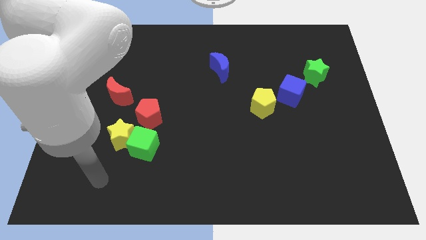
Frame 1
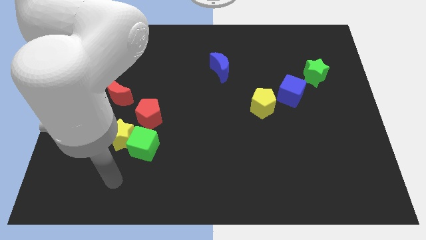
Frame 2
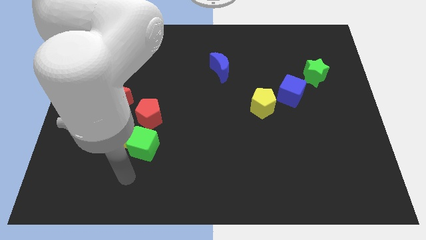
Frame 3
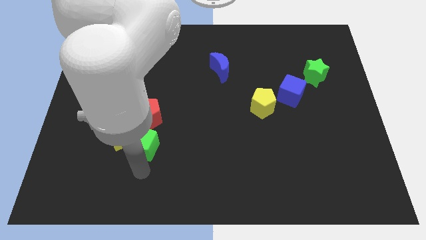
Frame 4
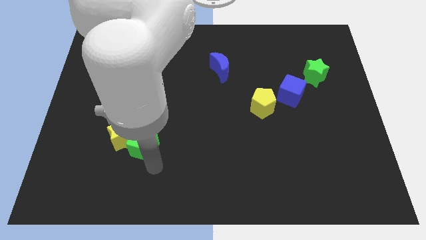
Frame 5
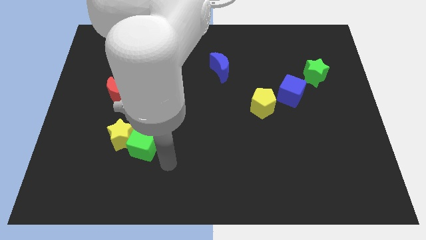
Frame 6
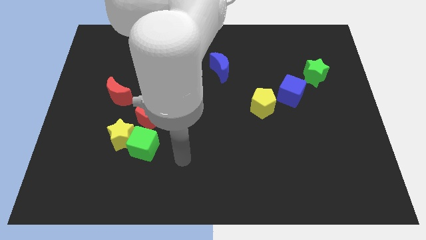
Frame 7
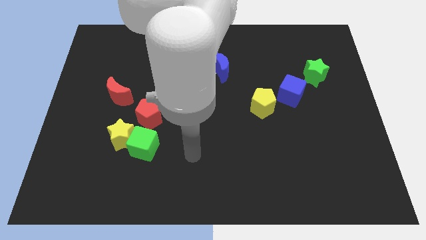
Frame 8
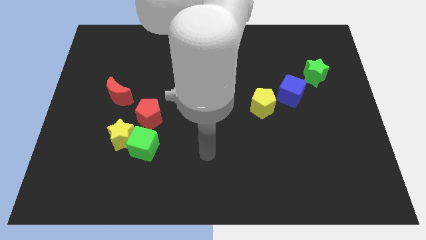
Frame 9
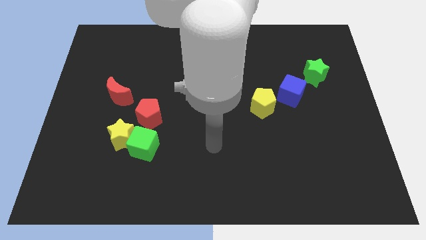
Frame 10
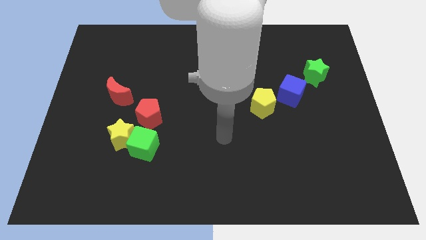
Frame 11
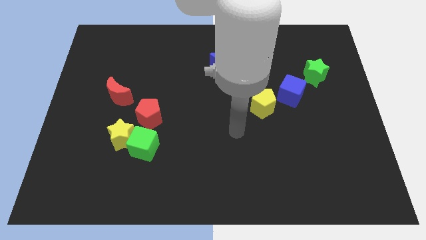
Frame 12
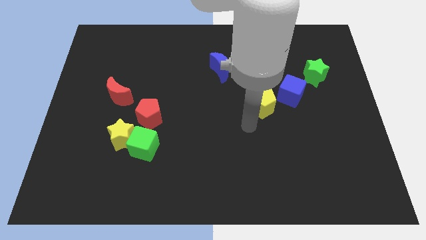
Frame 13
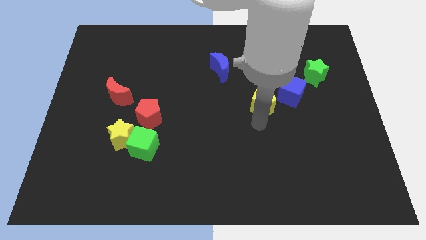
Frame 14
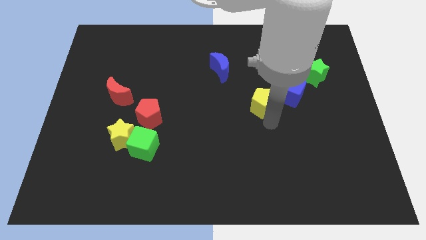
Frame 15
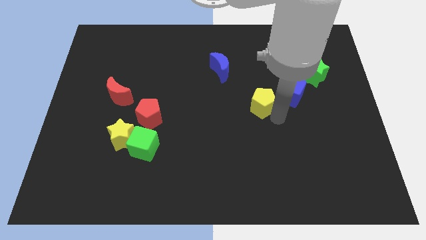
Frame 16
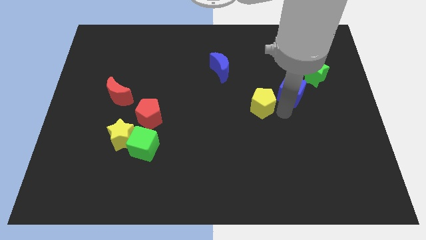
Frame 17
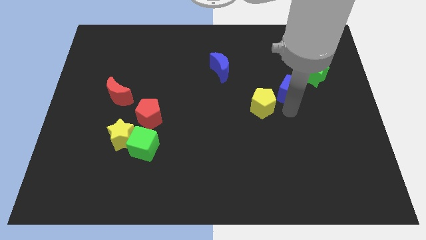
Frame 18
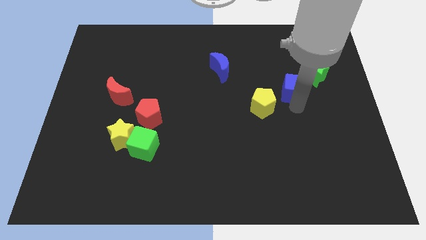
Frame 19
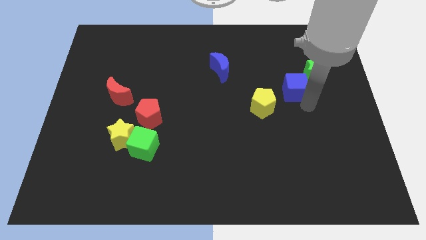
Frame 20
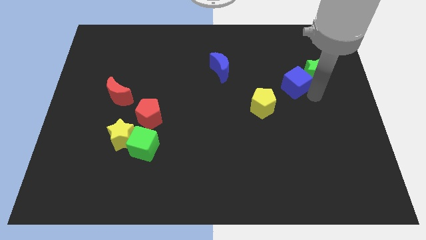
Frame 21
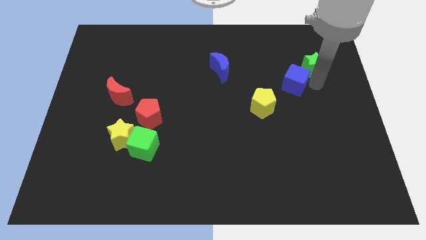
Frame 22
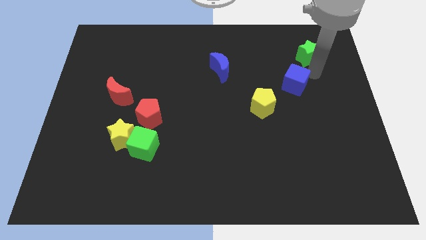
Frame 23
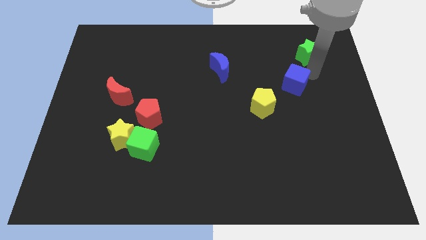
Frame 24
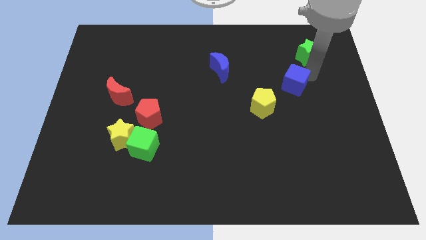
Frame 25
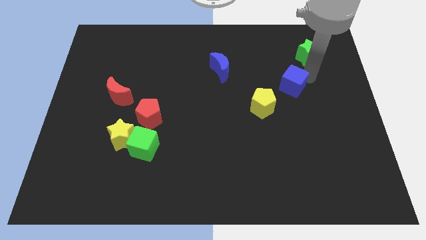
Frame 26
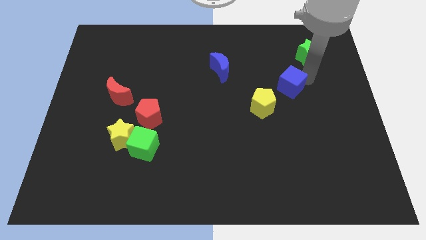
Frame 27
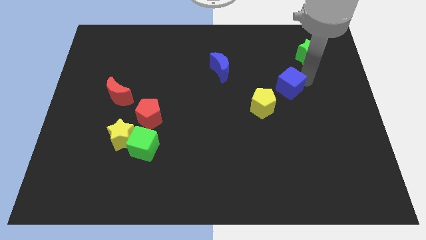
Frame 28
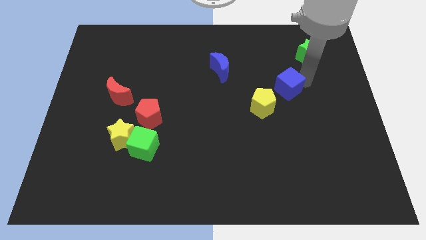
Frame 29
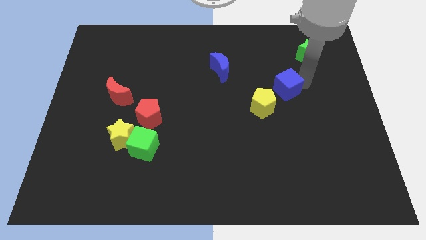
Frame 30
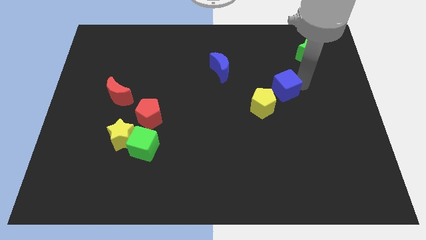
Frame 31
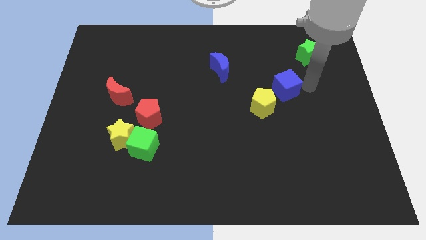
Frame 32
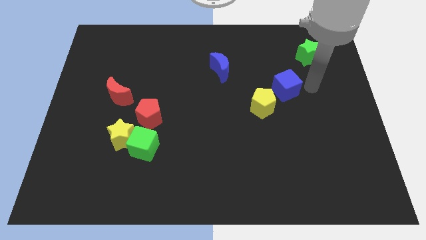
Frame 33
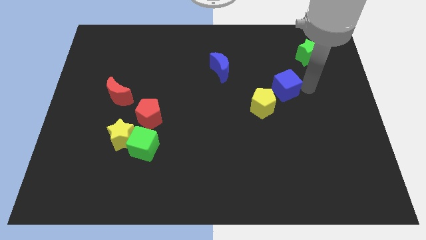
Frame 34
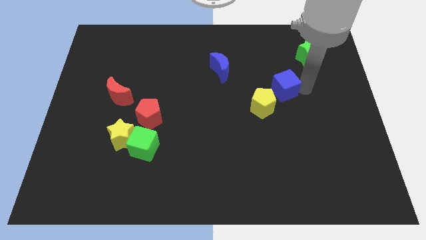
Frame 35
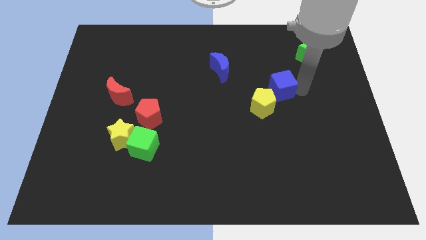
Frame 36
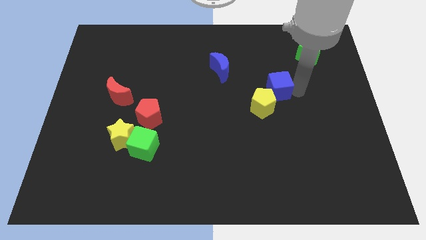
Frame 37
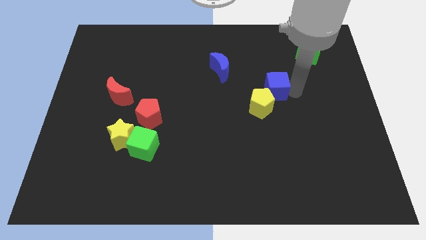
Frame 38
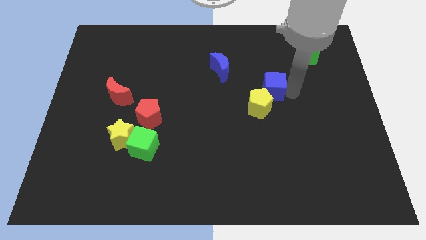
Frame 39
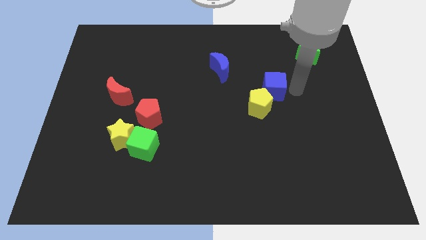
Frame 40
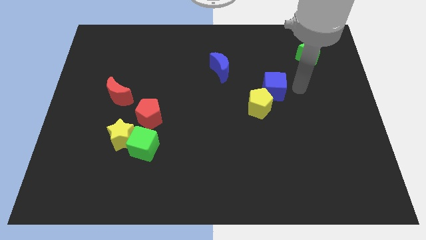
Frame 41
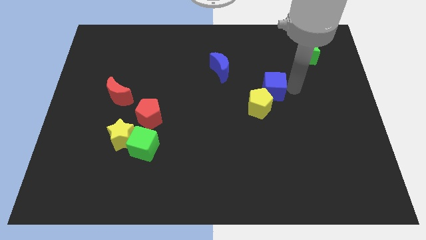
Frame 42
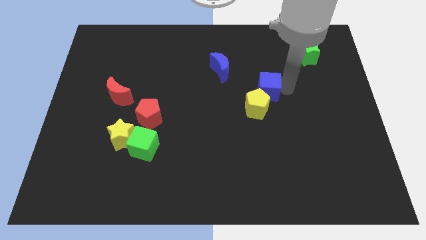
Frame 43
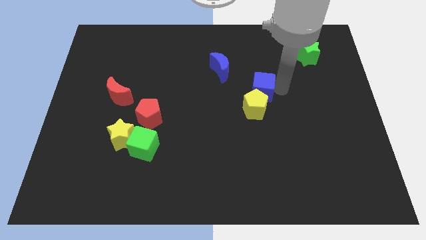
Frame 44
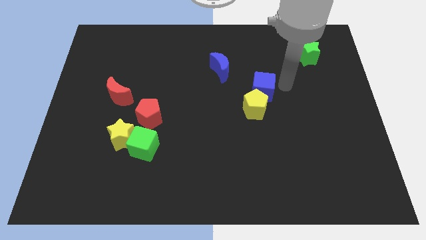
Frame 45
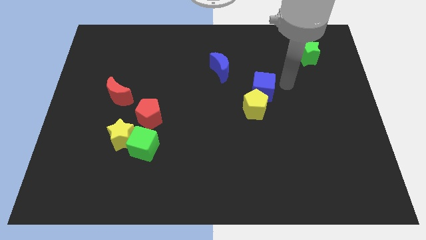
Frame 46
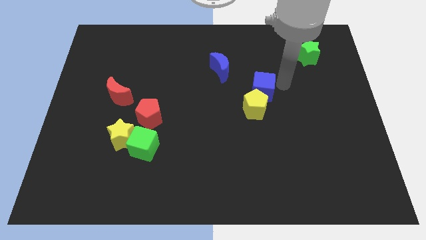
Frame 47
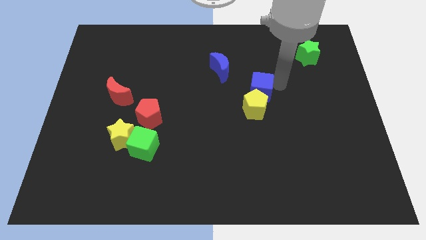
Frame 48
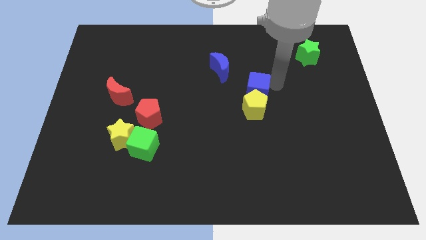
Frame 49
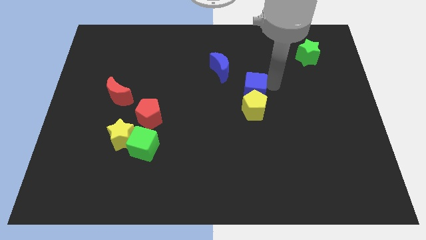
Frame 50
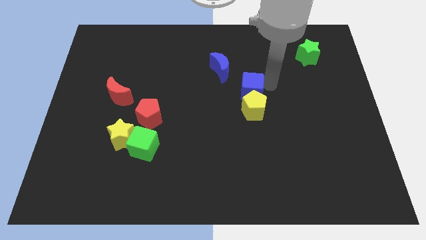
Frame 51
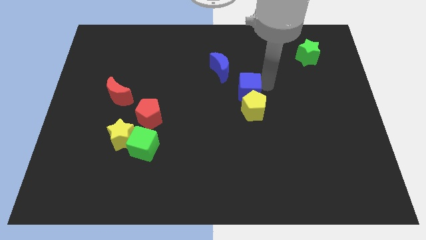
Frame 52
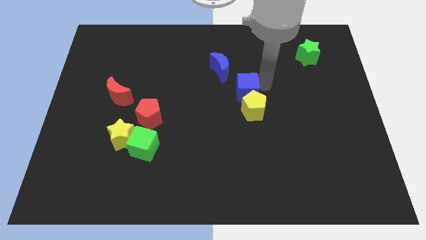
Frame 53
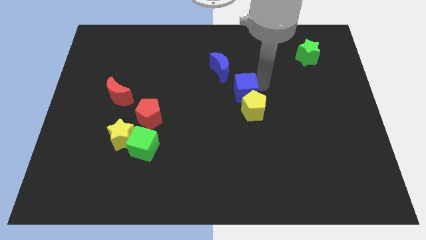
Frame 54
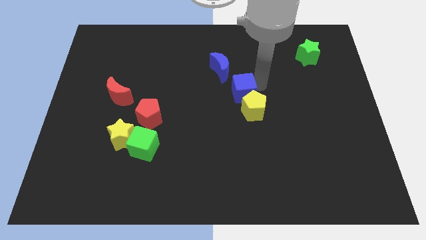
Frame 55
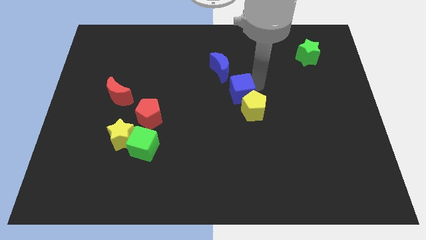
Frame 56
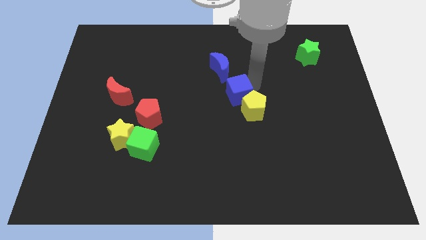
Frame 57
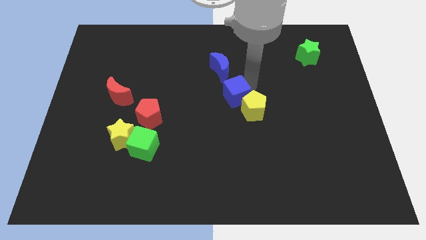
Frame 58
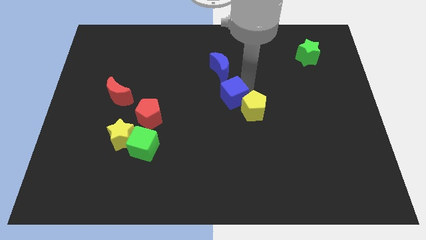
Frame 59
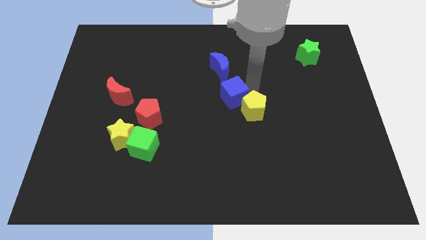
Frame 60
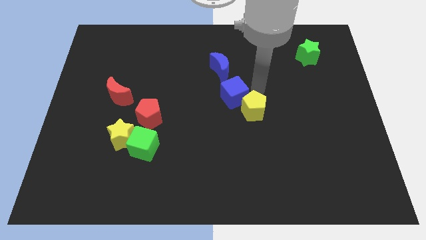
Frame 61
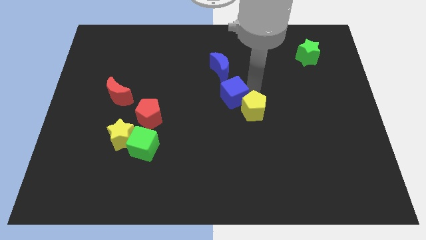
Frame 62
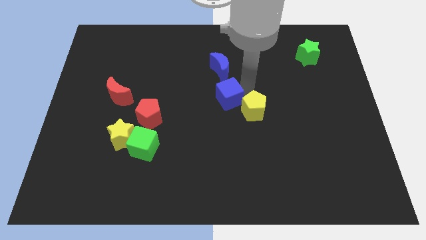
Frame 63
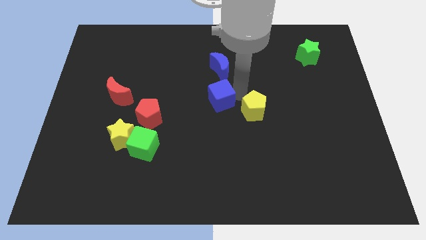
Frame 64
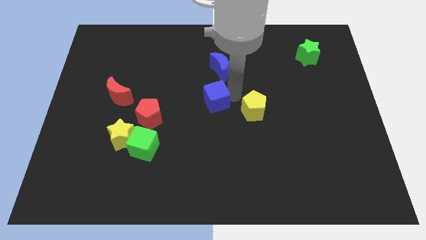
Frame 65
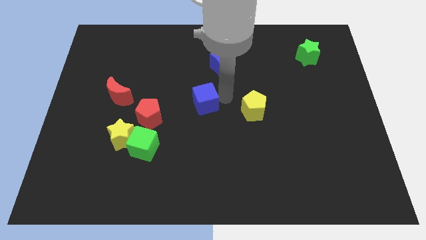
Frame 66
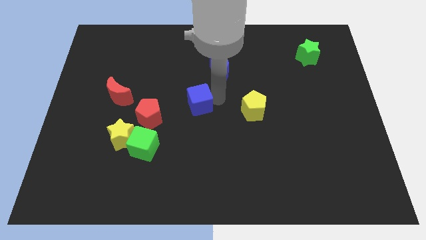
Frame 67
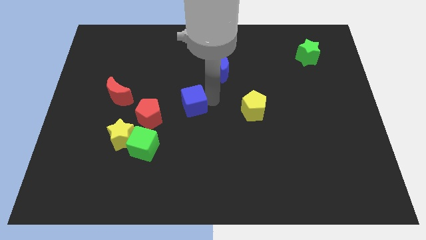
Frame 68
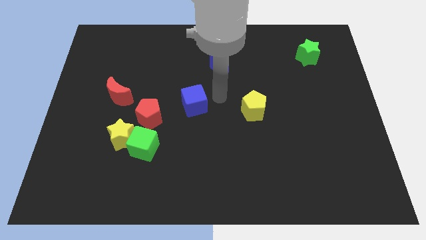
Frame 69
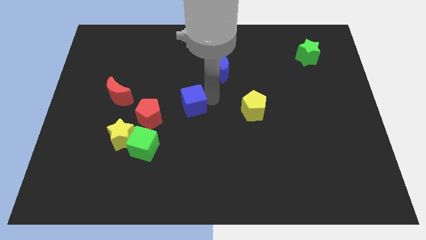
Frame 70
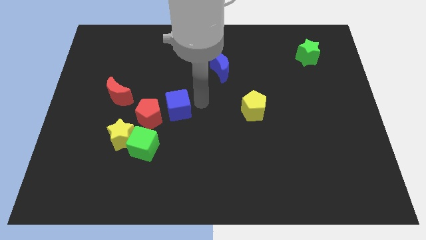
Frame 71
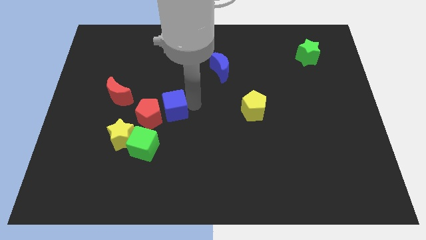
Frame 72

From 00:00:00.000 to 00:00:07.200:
move the blue cube towards the red pentagon

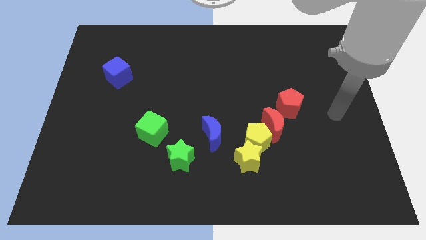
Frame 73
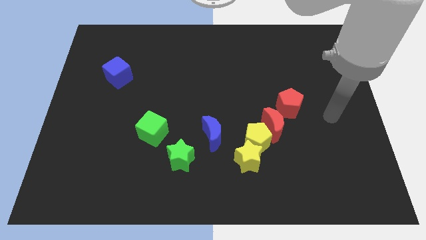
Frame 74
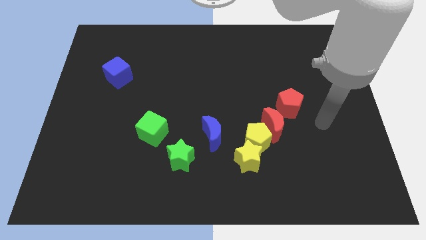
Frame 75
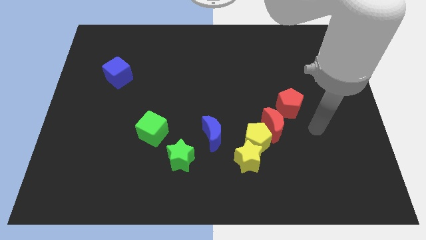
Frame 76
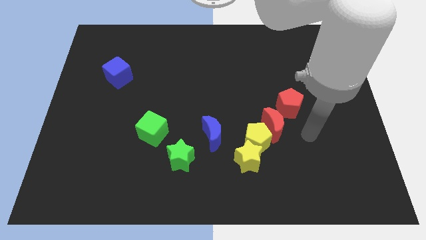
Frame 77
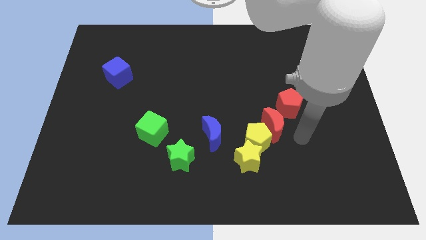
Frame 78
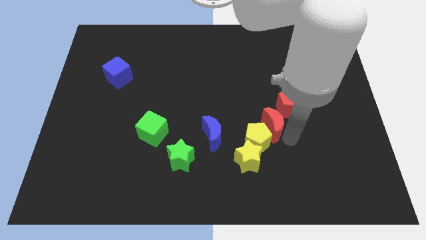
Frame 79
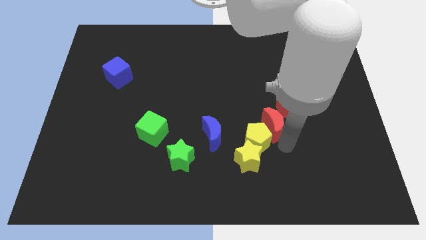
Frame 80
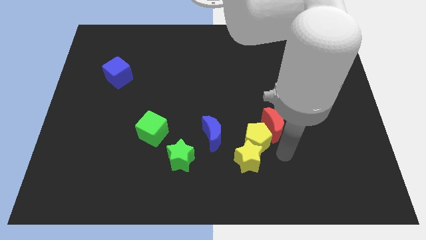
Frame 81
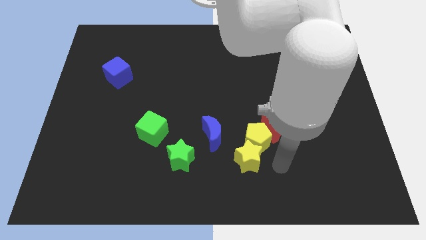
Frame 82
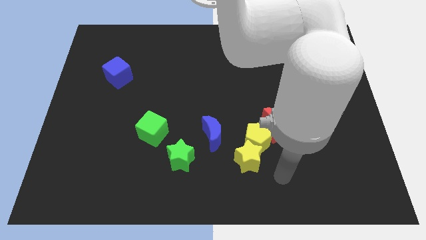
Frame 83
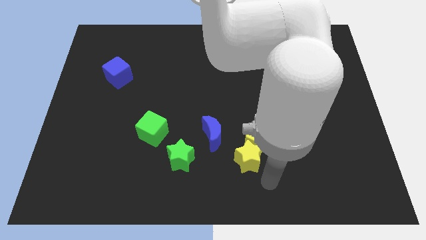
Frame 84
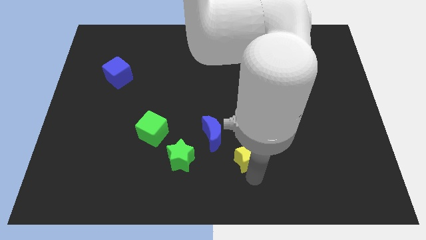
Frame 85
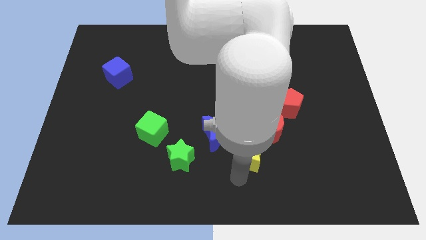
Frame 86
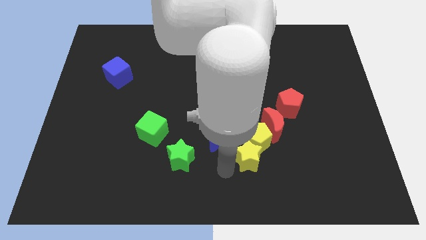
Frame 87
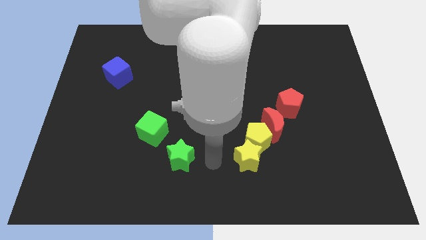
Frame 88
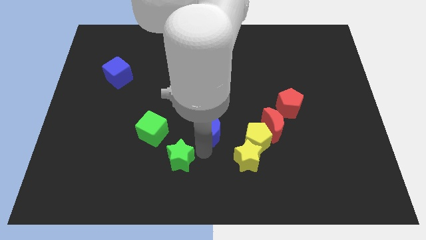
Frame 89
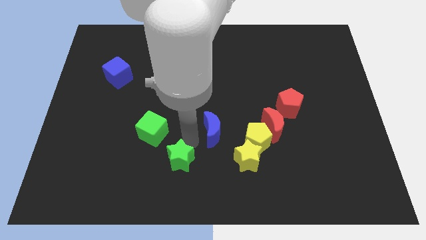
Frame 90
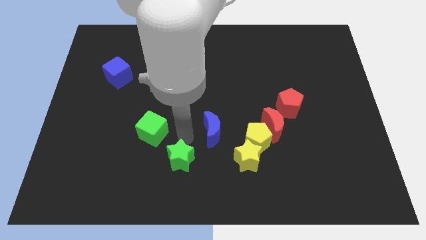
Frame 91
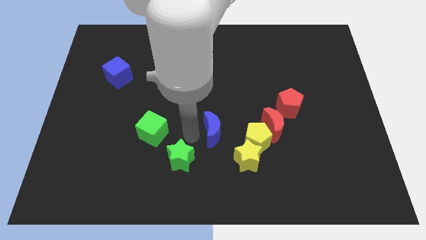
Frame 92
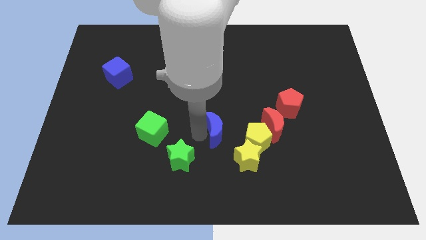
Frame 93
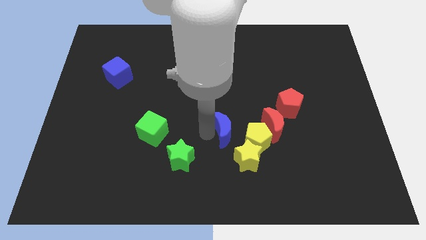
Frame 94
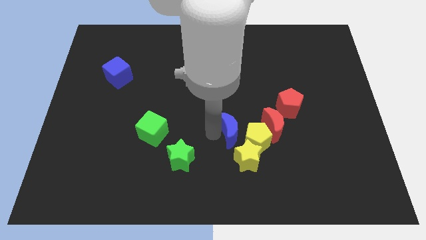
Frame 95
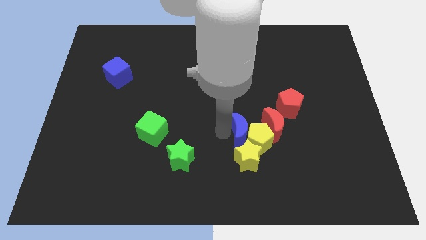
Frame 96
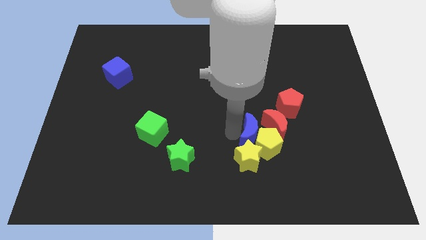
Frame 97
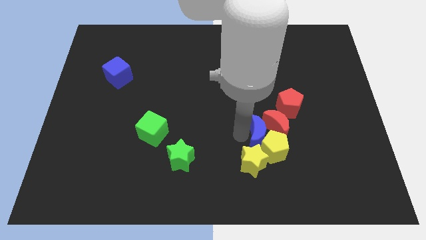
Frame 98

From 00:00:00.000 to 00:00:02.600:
push the blue moon close to the red moon
